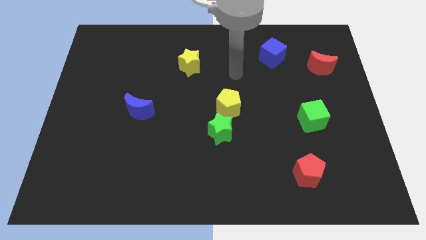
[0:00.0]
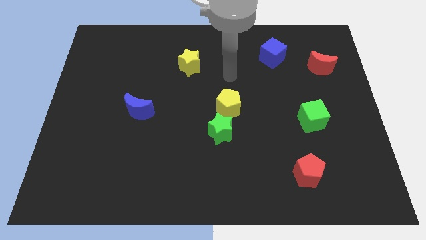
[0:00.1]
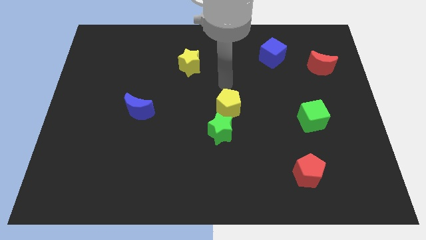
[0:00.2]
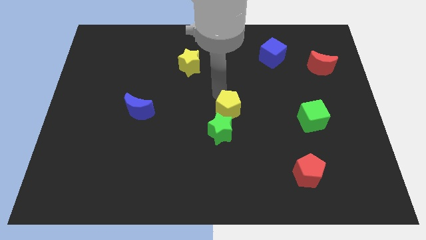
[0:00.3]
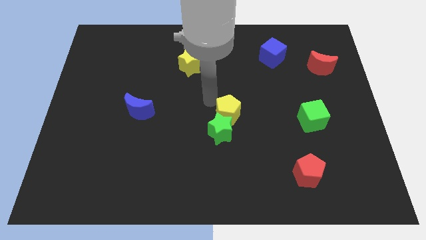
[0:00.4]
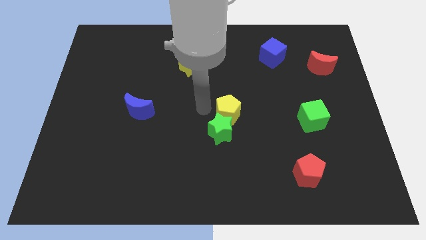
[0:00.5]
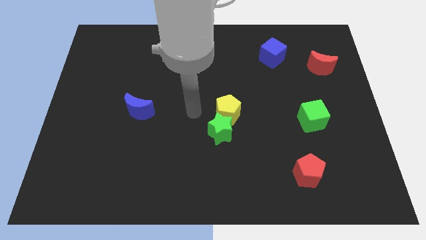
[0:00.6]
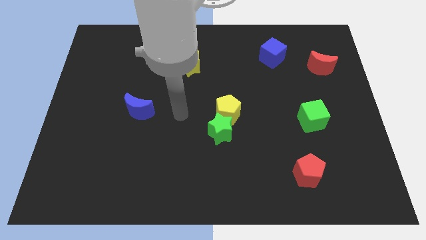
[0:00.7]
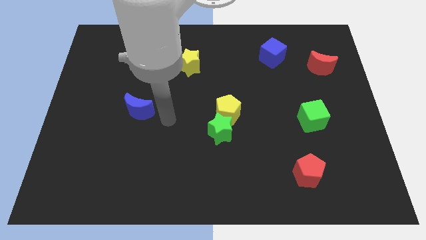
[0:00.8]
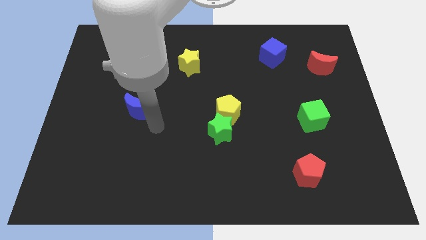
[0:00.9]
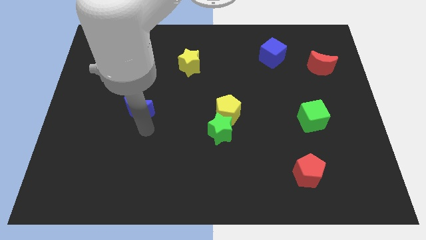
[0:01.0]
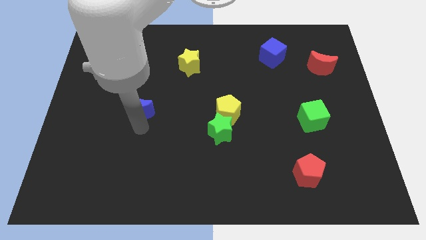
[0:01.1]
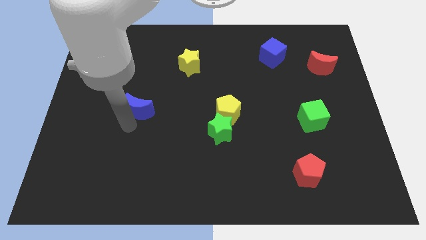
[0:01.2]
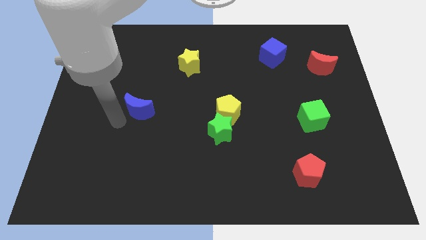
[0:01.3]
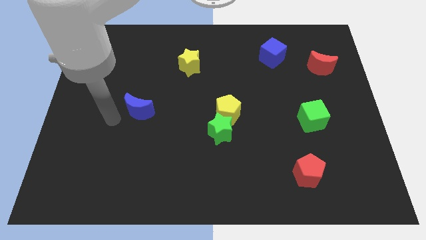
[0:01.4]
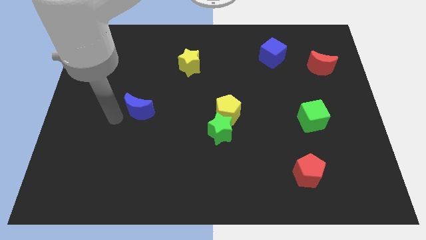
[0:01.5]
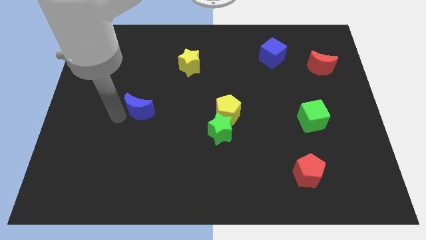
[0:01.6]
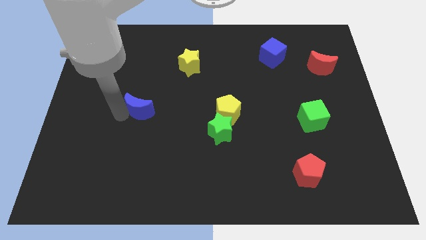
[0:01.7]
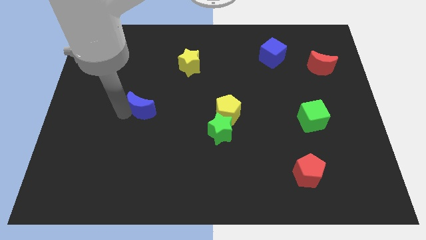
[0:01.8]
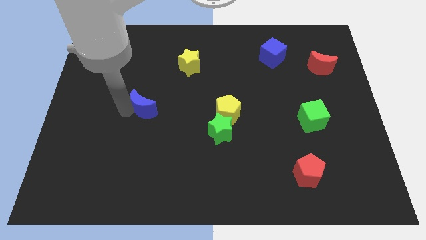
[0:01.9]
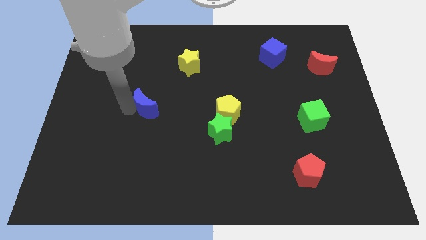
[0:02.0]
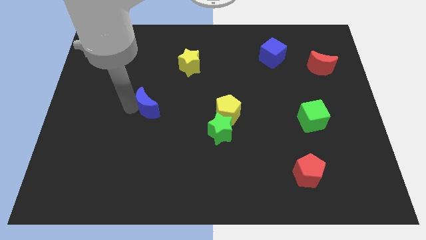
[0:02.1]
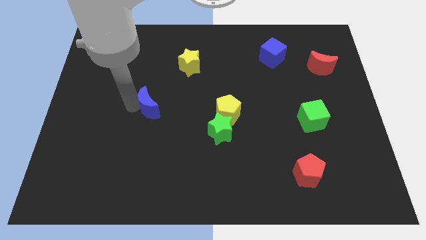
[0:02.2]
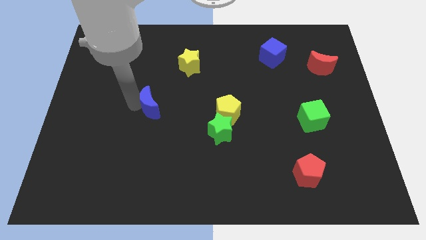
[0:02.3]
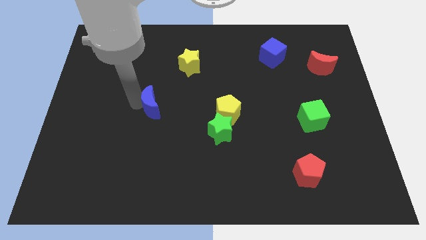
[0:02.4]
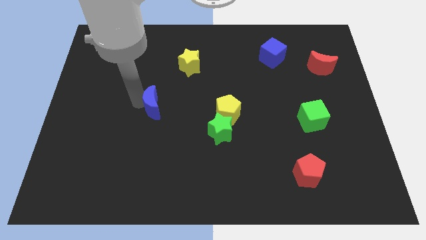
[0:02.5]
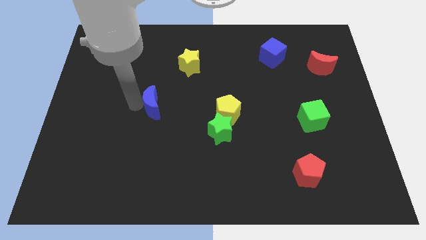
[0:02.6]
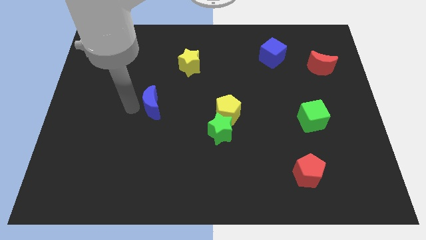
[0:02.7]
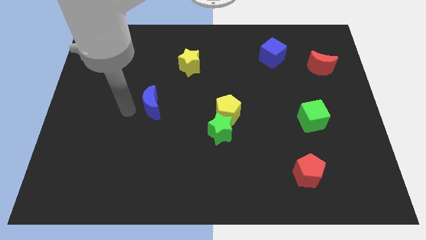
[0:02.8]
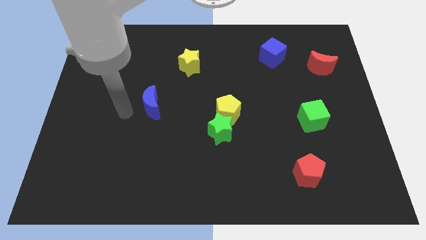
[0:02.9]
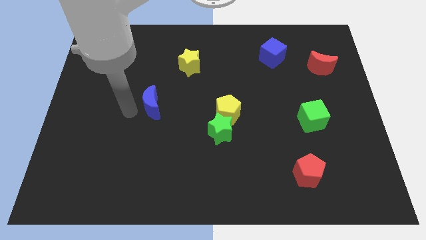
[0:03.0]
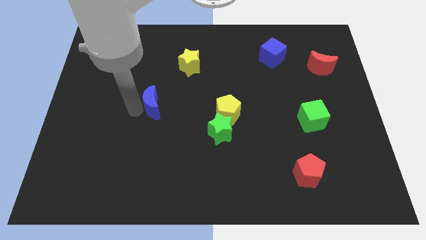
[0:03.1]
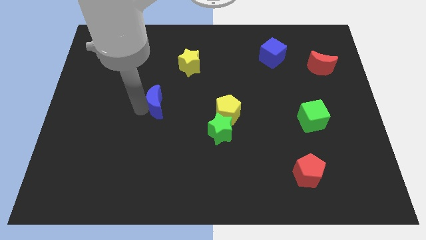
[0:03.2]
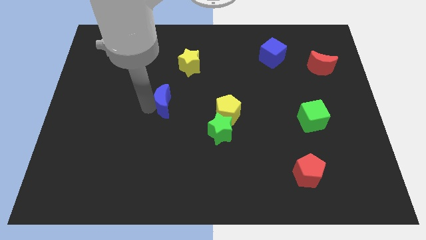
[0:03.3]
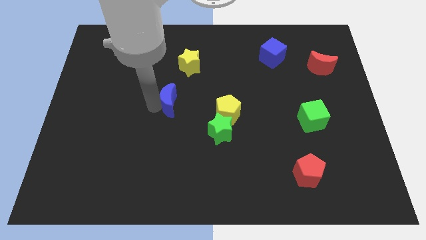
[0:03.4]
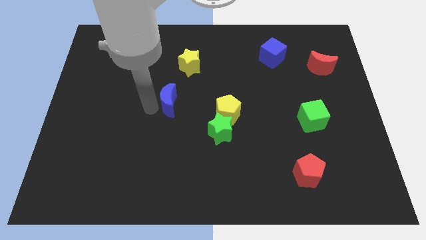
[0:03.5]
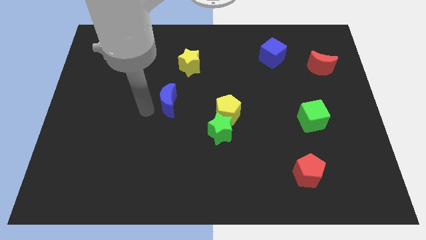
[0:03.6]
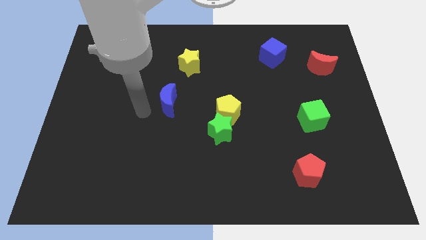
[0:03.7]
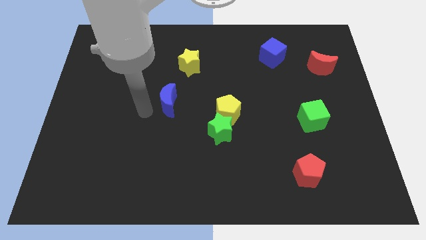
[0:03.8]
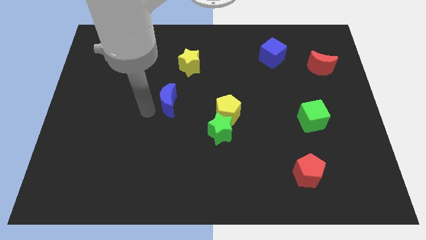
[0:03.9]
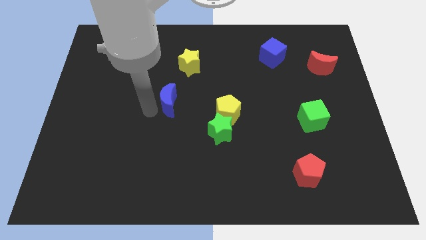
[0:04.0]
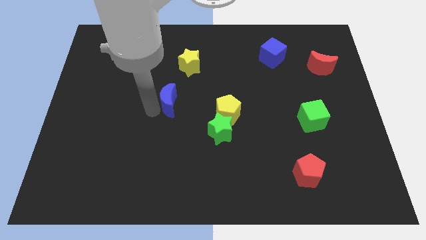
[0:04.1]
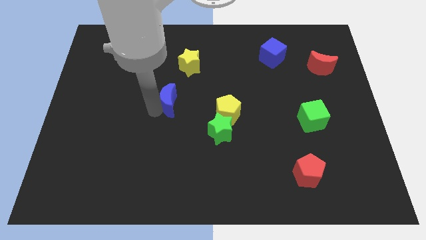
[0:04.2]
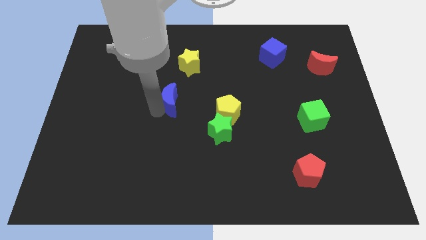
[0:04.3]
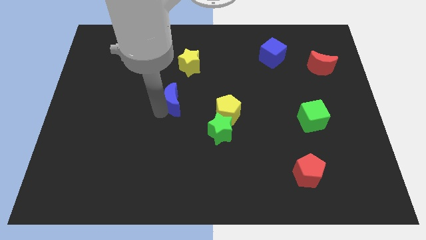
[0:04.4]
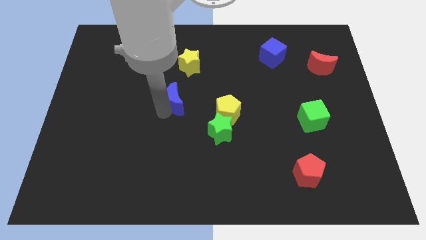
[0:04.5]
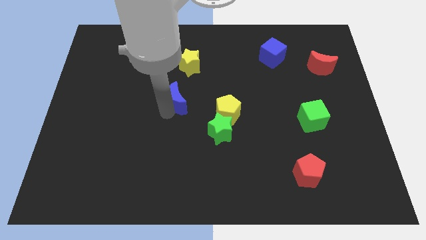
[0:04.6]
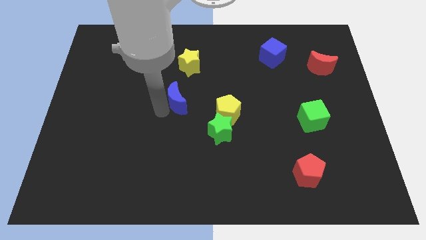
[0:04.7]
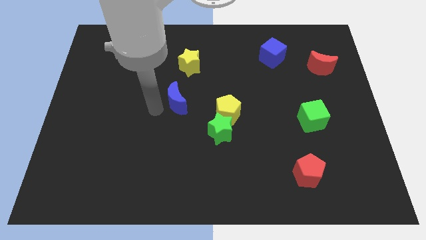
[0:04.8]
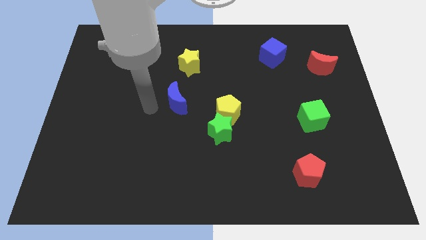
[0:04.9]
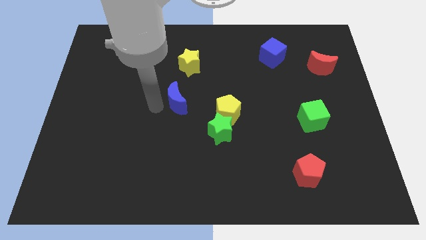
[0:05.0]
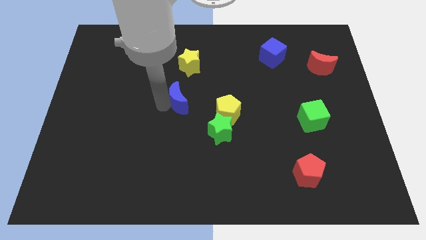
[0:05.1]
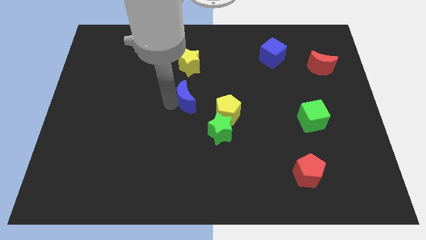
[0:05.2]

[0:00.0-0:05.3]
put the blue moon to the top left side of the yellow pentagon

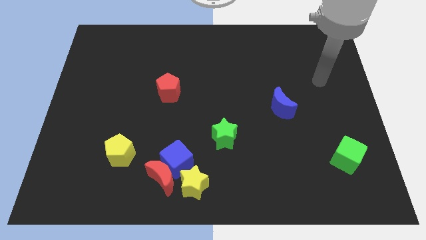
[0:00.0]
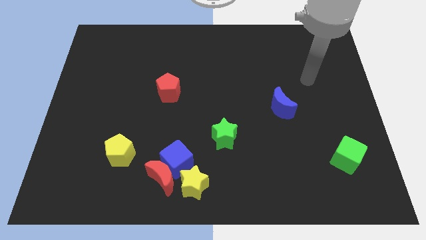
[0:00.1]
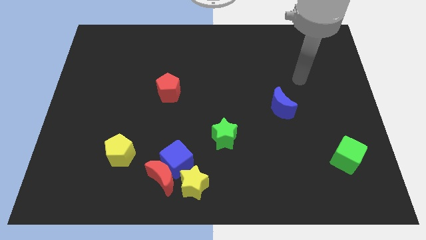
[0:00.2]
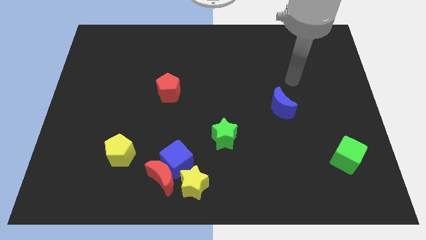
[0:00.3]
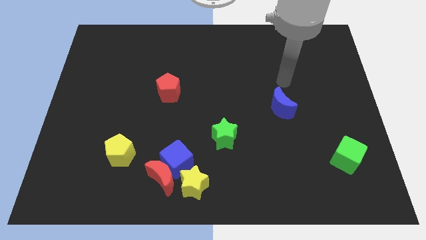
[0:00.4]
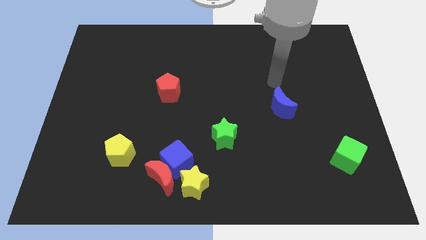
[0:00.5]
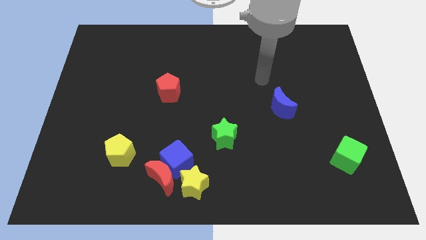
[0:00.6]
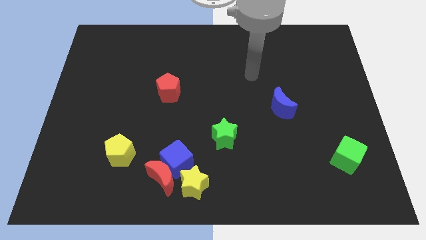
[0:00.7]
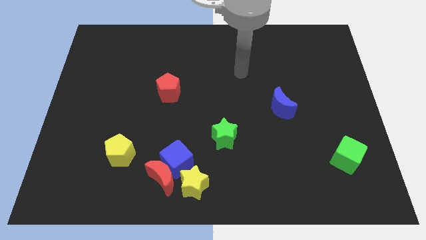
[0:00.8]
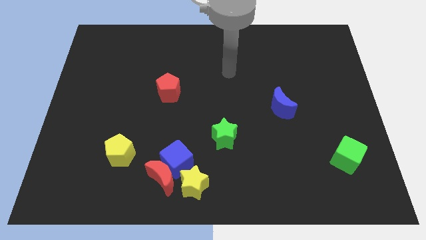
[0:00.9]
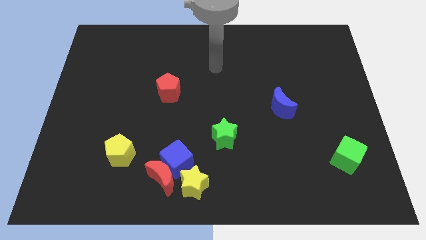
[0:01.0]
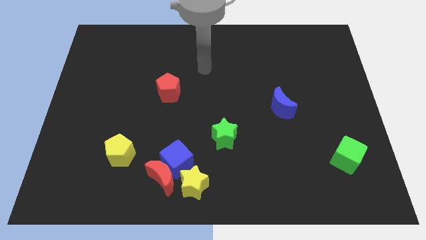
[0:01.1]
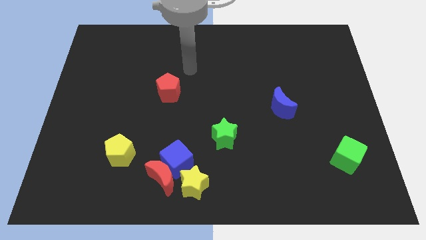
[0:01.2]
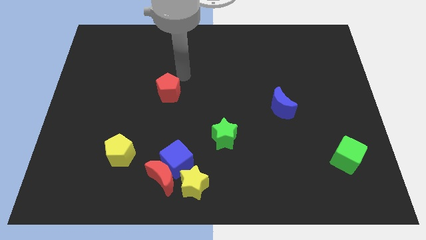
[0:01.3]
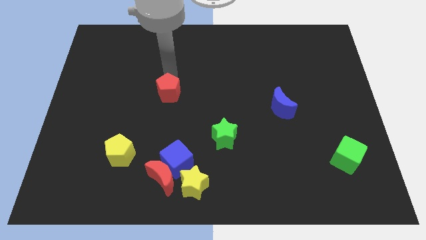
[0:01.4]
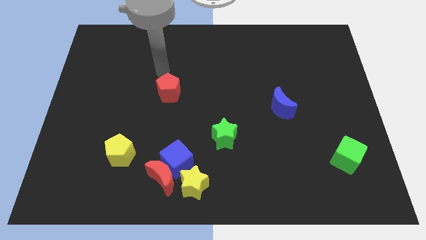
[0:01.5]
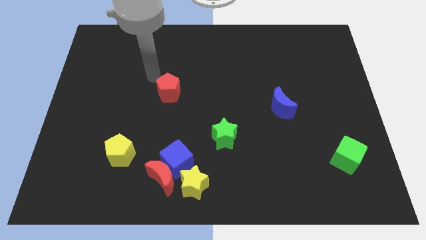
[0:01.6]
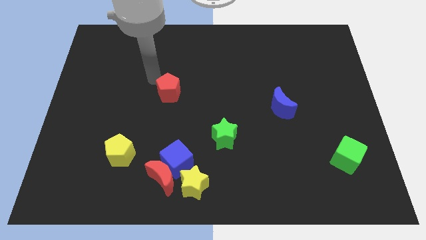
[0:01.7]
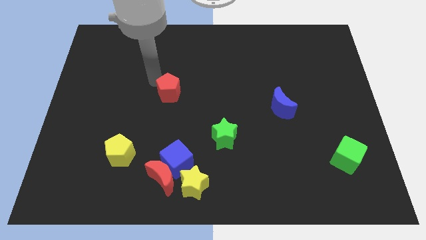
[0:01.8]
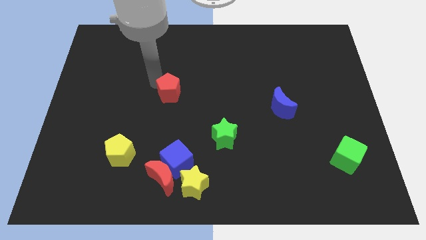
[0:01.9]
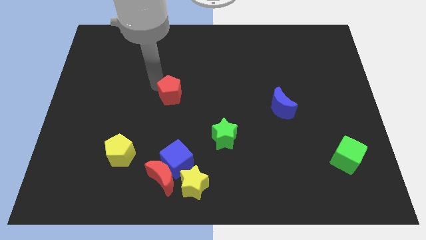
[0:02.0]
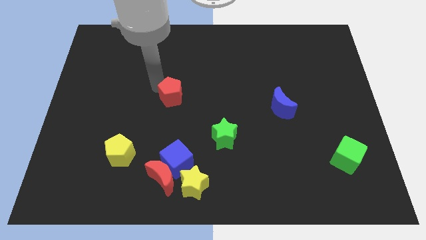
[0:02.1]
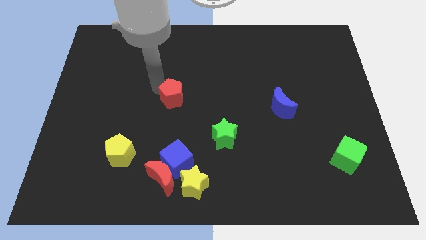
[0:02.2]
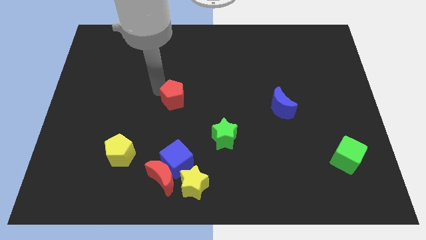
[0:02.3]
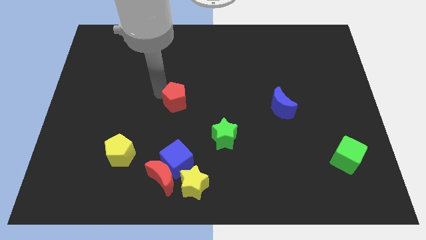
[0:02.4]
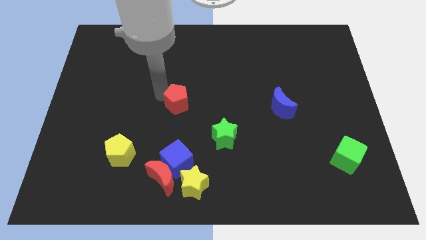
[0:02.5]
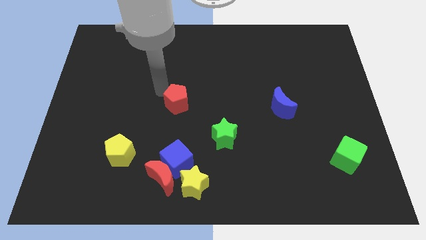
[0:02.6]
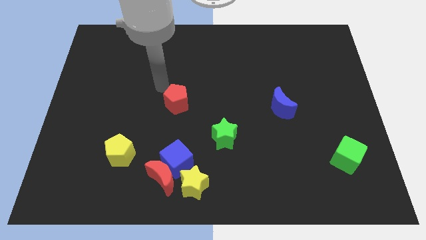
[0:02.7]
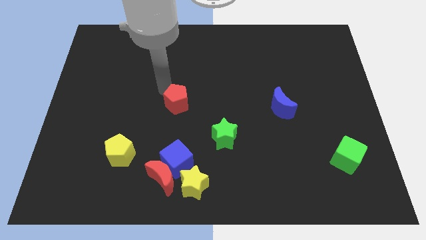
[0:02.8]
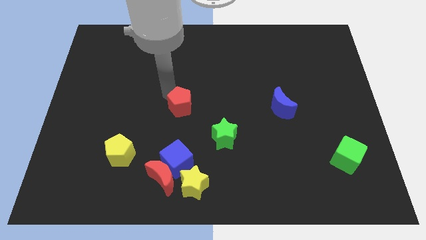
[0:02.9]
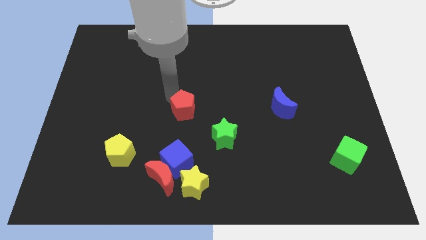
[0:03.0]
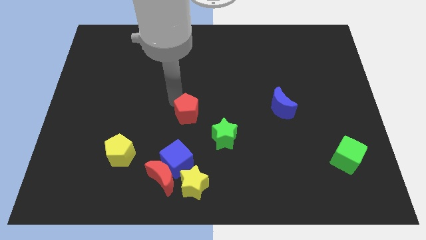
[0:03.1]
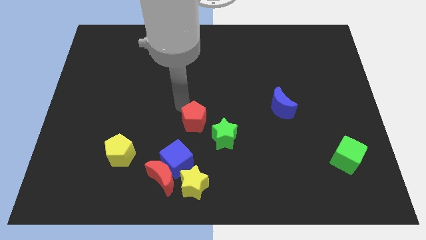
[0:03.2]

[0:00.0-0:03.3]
slide the red pentagon to the top of the yellow star
